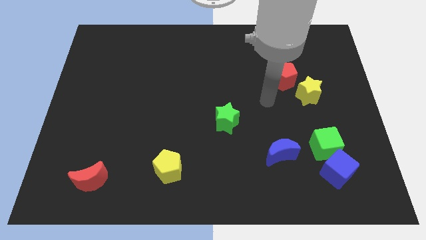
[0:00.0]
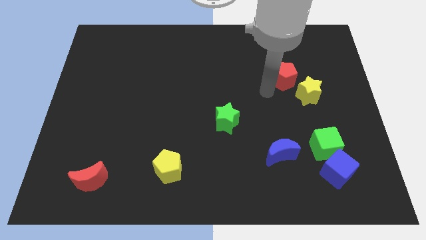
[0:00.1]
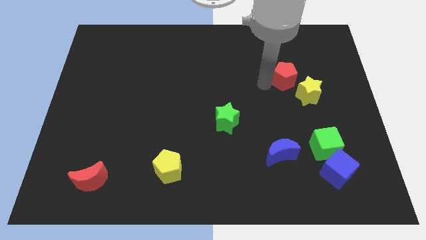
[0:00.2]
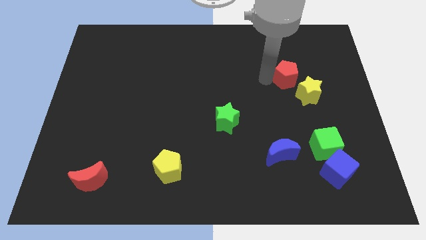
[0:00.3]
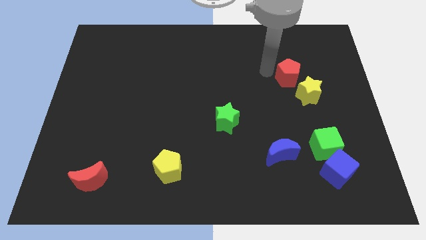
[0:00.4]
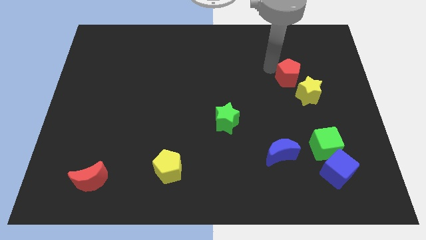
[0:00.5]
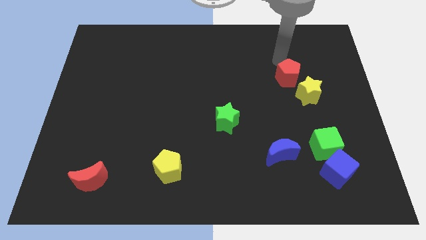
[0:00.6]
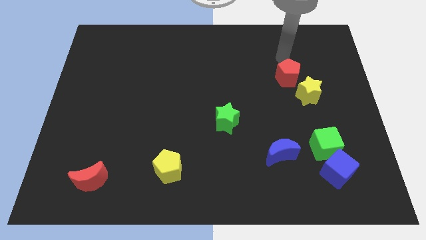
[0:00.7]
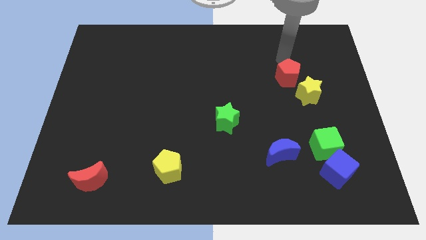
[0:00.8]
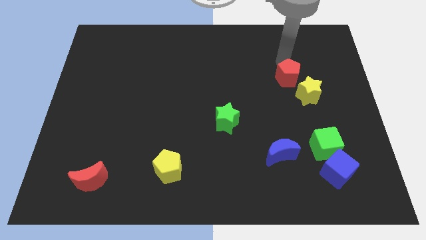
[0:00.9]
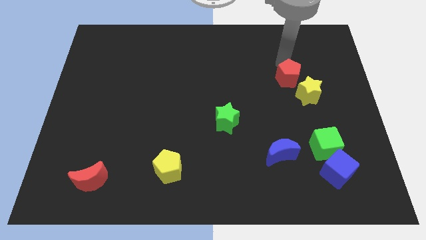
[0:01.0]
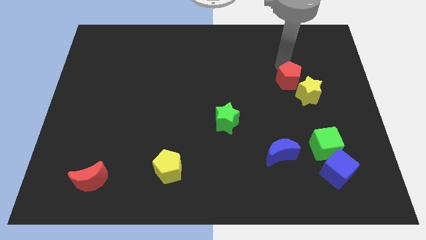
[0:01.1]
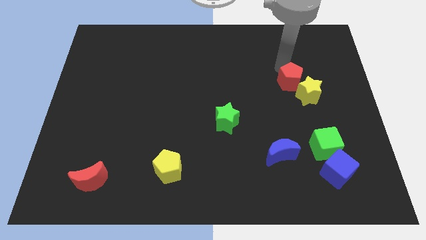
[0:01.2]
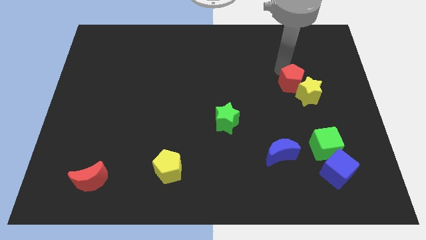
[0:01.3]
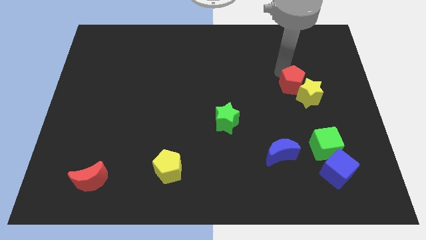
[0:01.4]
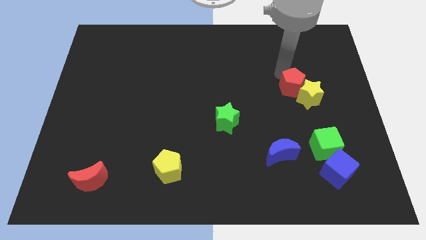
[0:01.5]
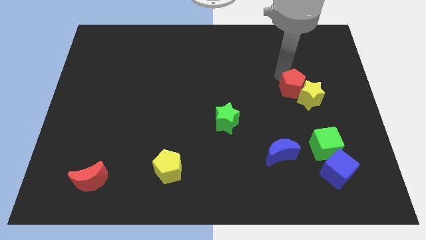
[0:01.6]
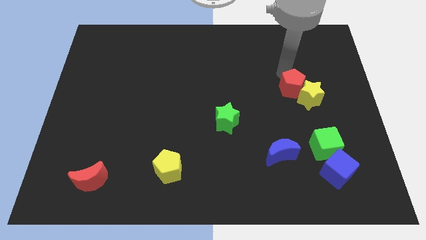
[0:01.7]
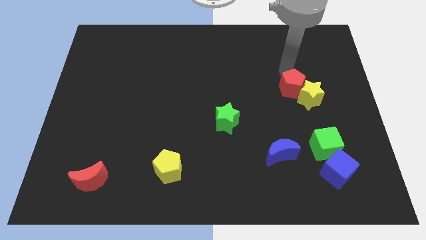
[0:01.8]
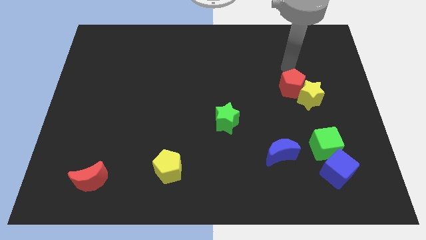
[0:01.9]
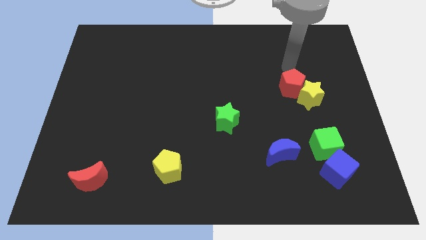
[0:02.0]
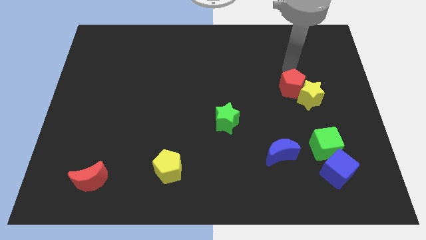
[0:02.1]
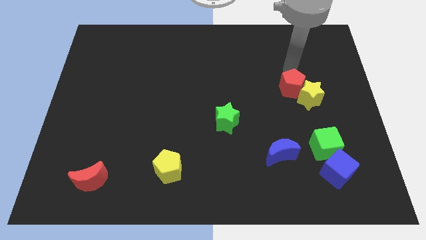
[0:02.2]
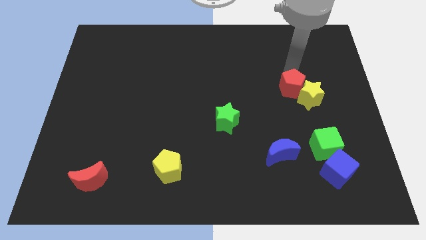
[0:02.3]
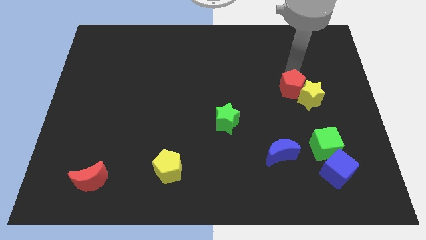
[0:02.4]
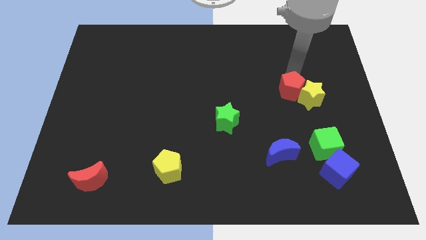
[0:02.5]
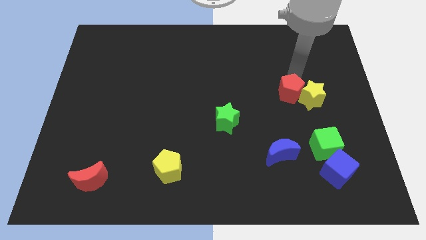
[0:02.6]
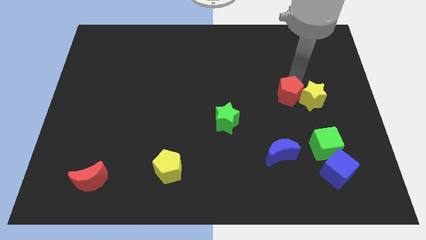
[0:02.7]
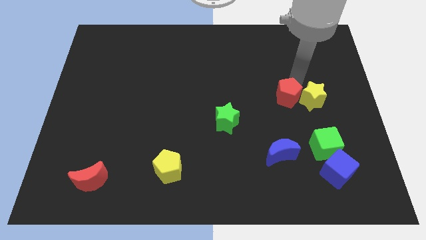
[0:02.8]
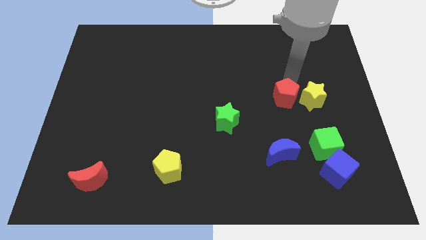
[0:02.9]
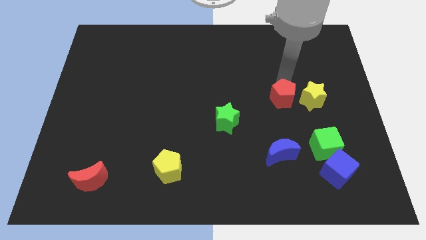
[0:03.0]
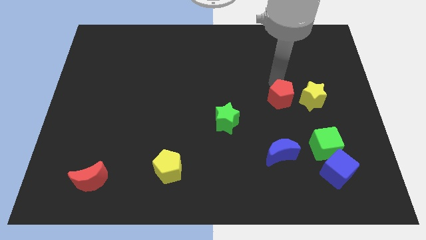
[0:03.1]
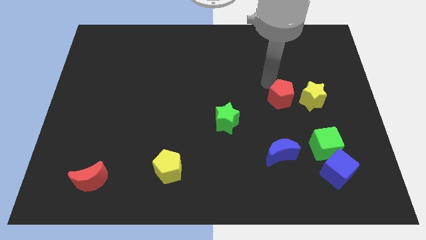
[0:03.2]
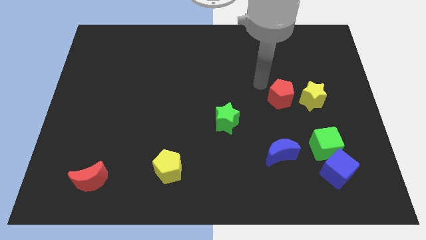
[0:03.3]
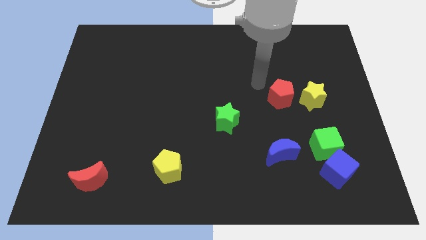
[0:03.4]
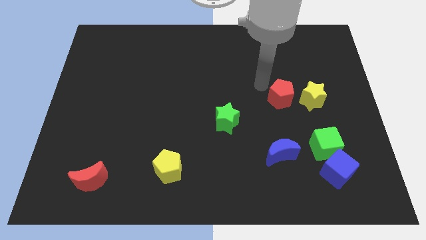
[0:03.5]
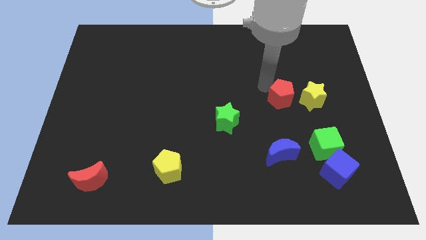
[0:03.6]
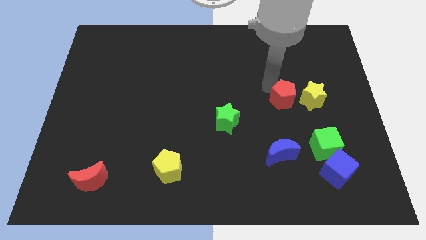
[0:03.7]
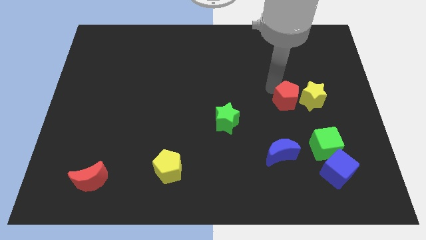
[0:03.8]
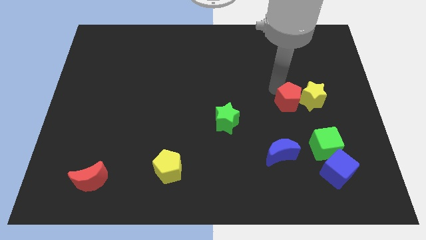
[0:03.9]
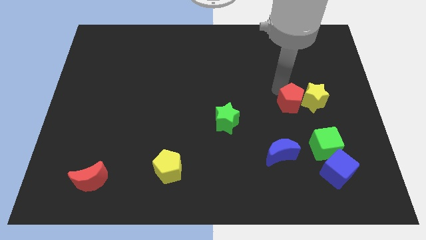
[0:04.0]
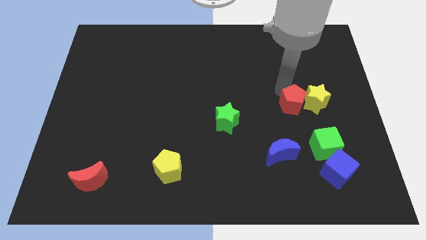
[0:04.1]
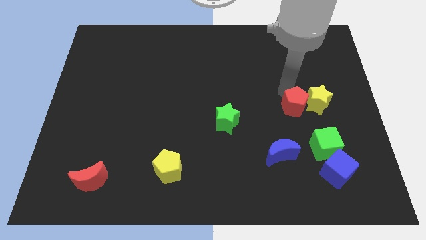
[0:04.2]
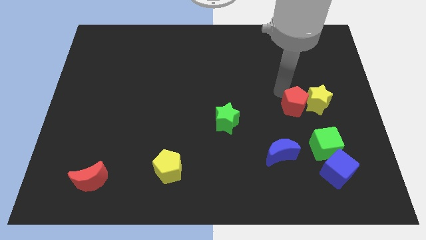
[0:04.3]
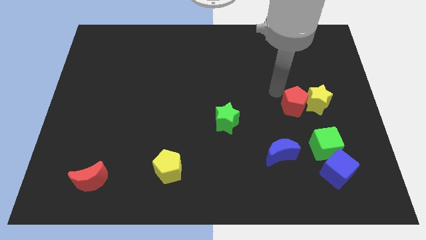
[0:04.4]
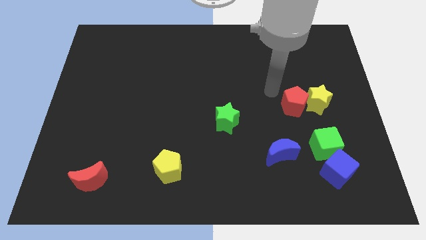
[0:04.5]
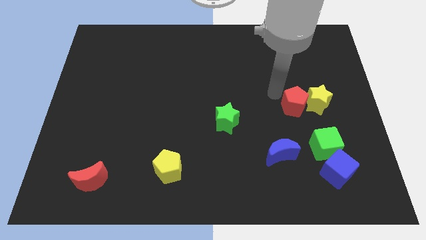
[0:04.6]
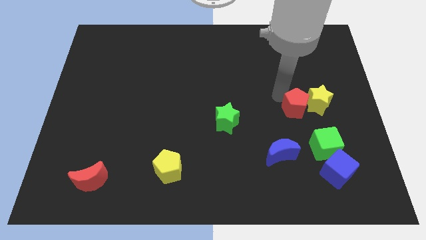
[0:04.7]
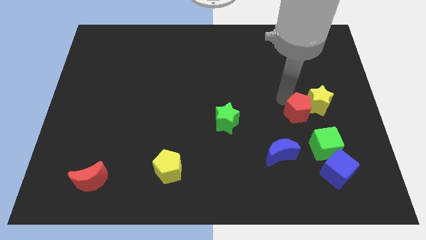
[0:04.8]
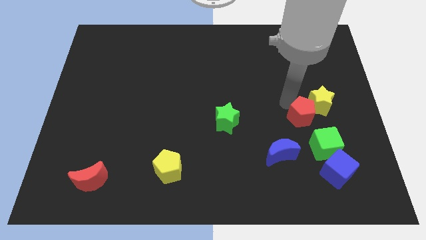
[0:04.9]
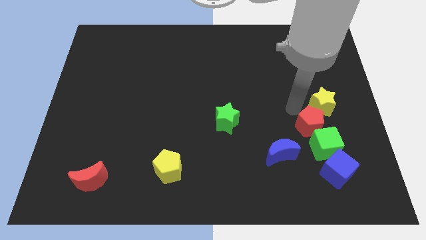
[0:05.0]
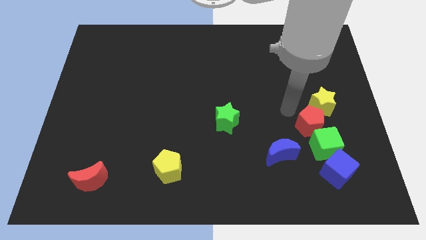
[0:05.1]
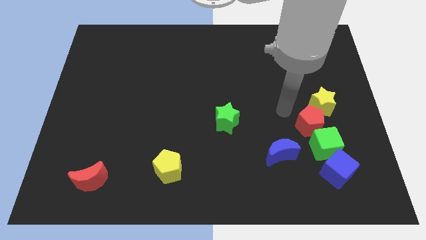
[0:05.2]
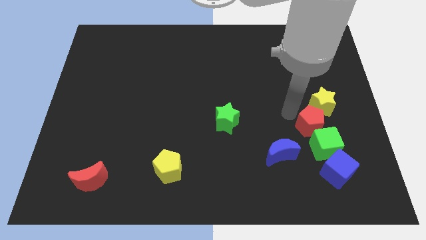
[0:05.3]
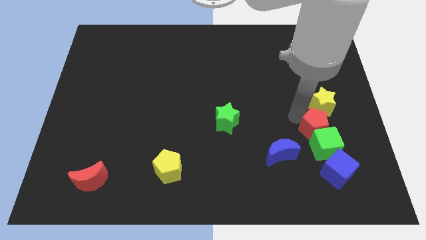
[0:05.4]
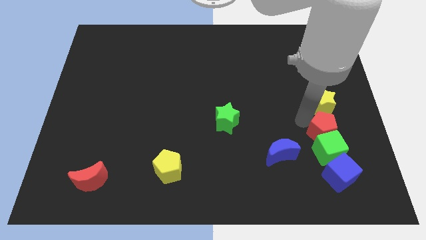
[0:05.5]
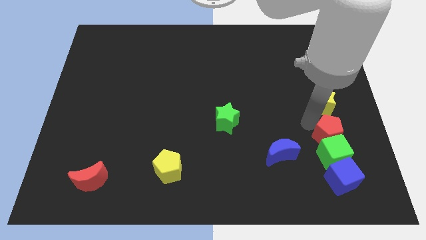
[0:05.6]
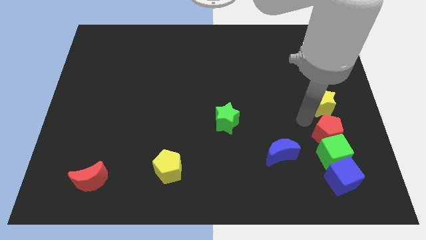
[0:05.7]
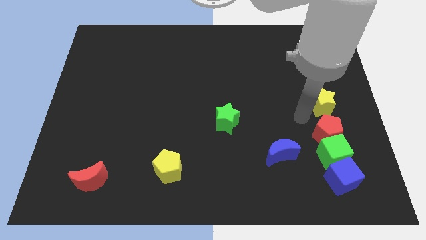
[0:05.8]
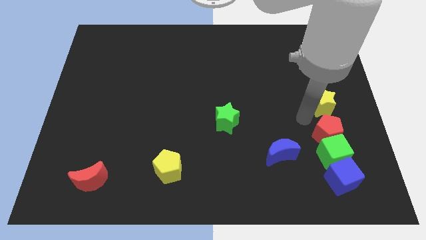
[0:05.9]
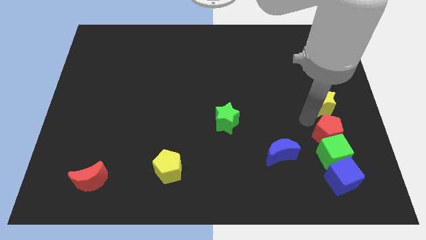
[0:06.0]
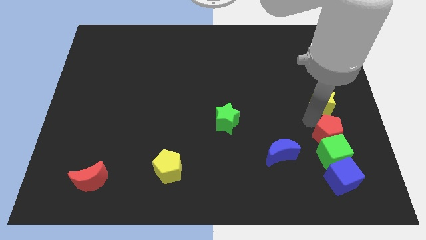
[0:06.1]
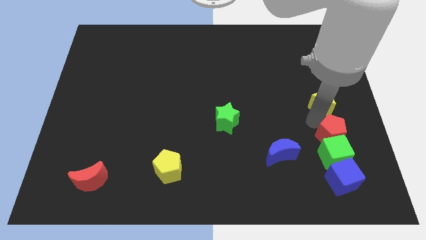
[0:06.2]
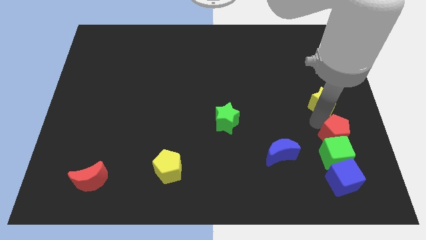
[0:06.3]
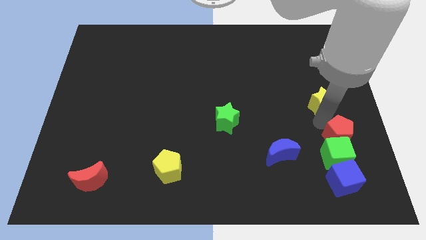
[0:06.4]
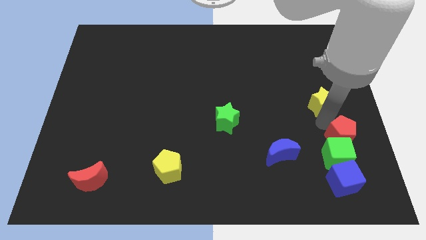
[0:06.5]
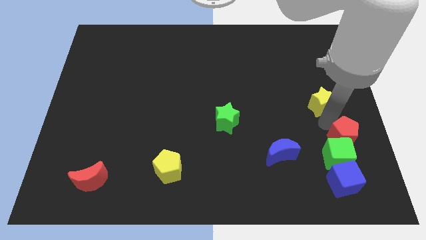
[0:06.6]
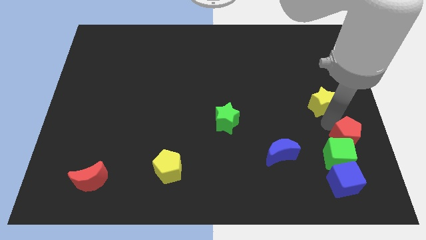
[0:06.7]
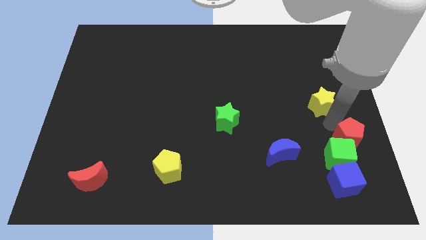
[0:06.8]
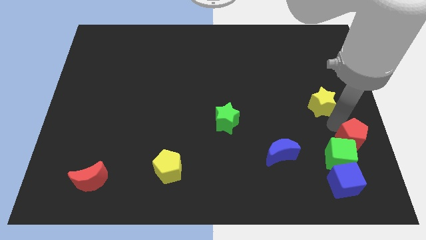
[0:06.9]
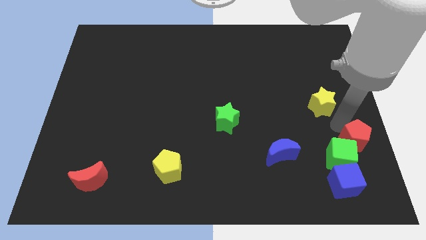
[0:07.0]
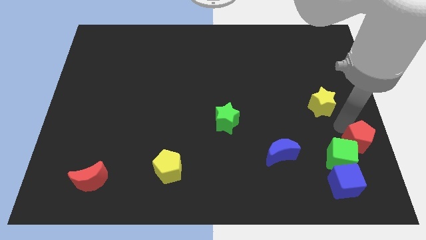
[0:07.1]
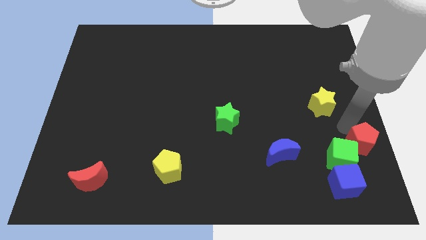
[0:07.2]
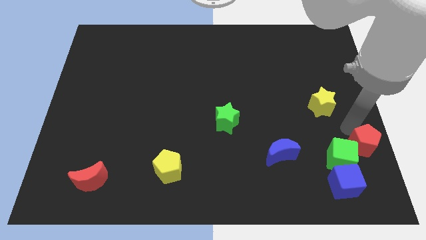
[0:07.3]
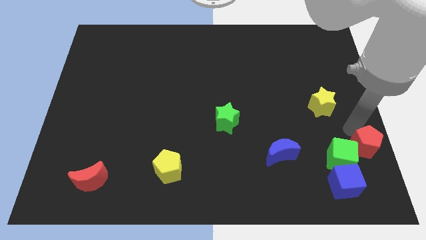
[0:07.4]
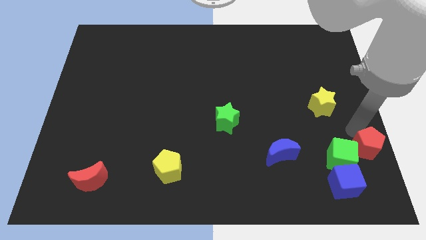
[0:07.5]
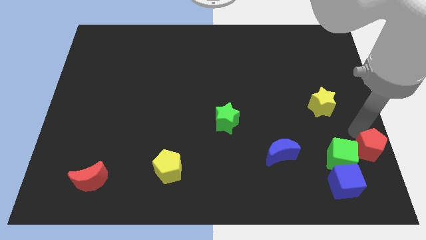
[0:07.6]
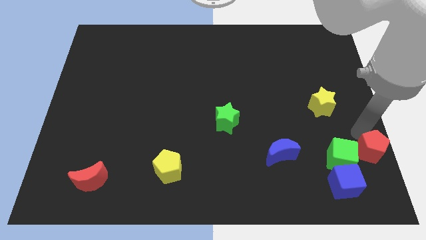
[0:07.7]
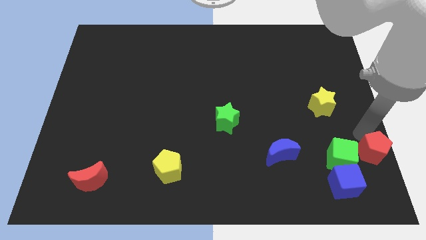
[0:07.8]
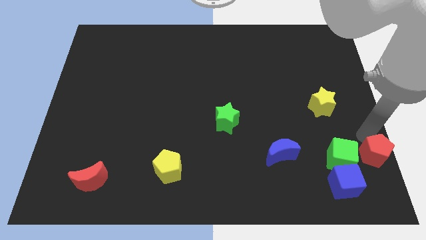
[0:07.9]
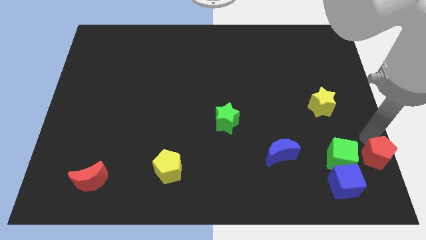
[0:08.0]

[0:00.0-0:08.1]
move the red pentagon to the bottom right corner
